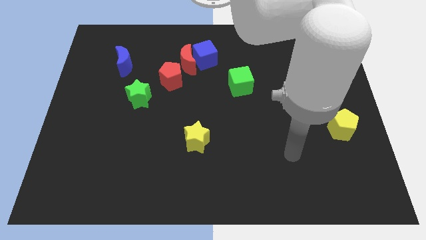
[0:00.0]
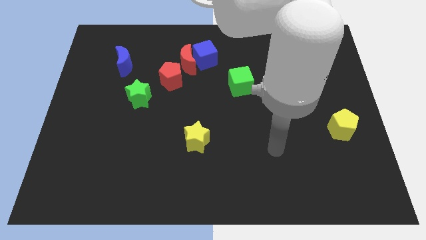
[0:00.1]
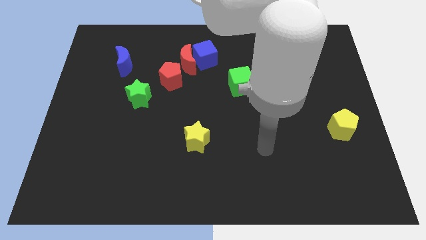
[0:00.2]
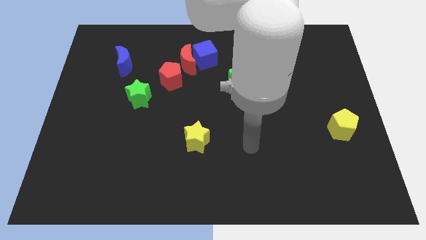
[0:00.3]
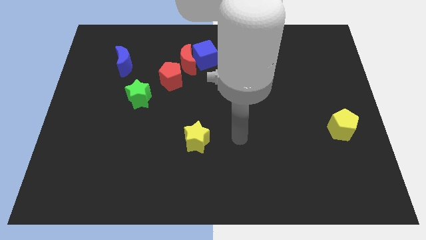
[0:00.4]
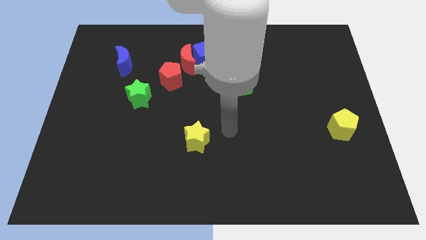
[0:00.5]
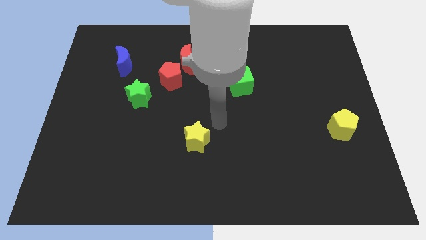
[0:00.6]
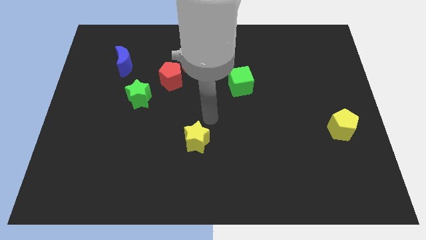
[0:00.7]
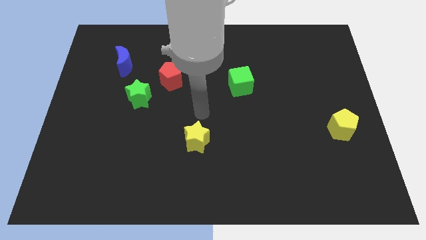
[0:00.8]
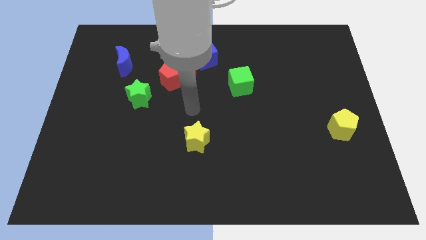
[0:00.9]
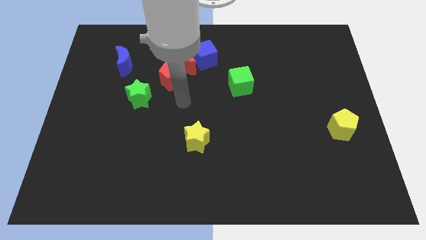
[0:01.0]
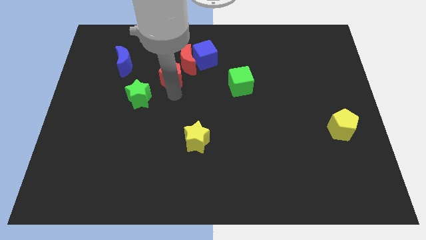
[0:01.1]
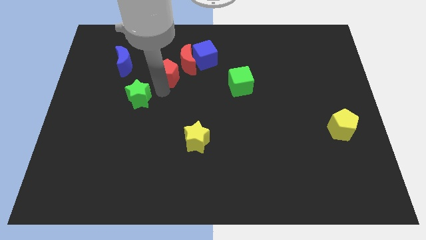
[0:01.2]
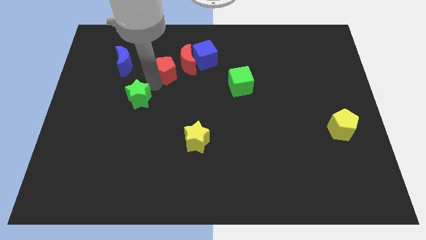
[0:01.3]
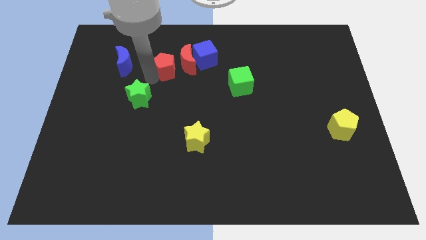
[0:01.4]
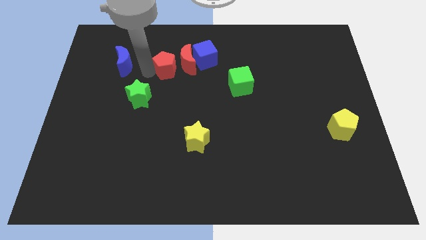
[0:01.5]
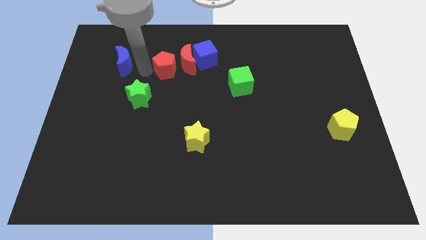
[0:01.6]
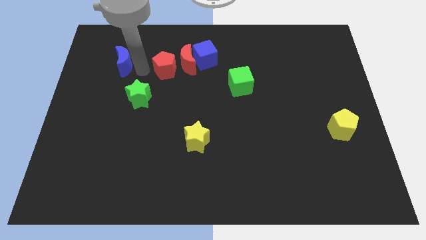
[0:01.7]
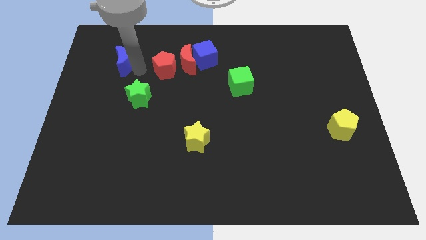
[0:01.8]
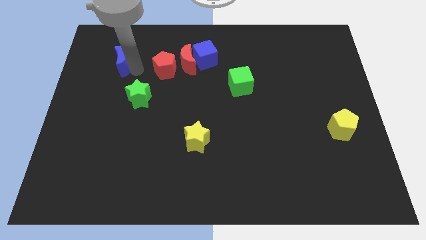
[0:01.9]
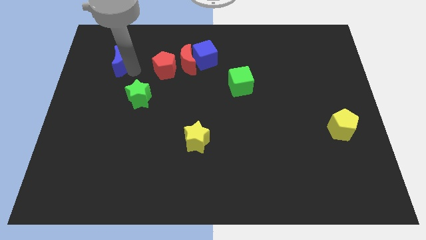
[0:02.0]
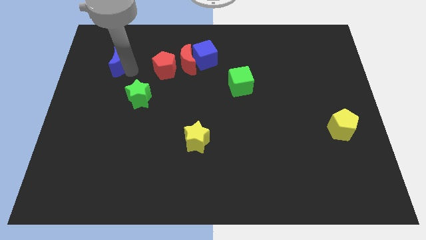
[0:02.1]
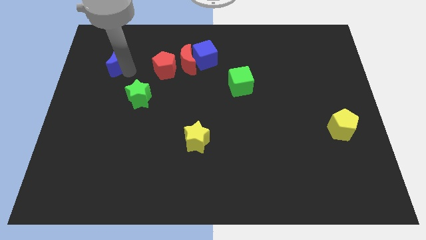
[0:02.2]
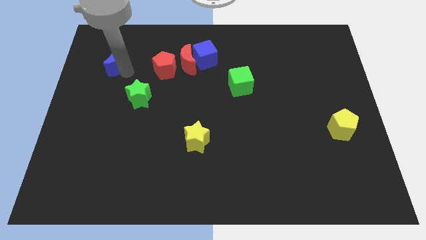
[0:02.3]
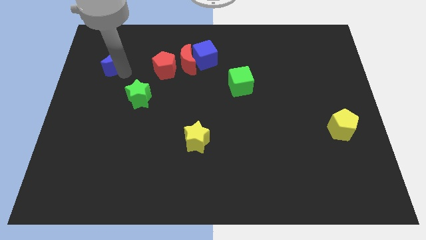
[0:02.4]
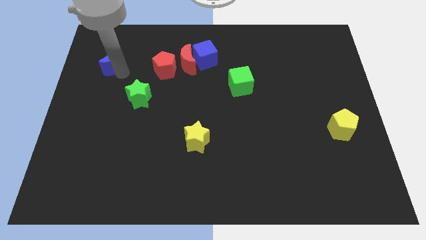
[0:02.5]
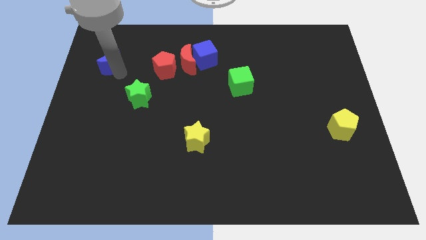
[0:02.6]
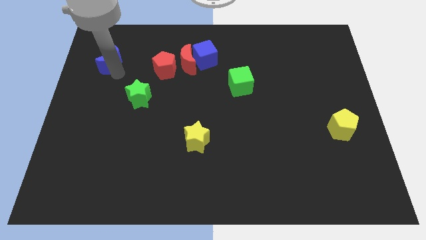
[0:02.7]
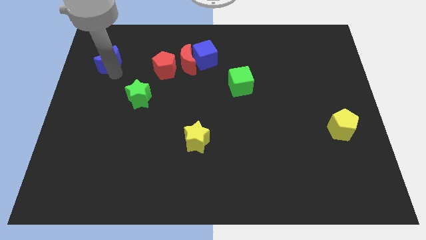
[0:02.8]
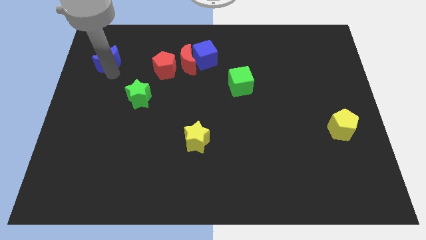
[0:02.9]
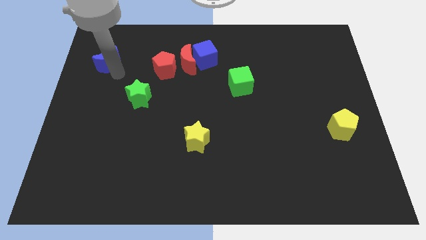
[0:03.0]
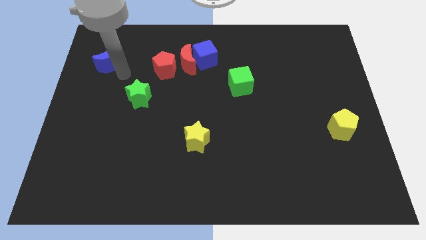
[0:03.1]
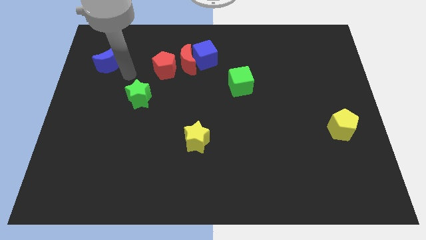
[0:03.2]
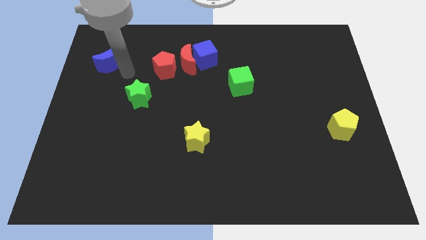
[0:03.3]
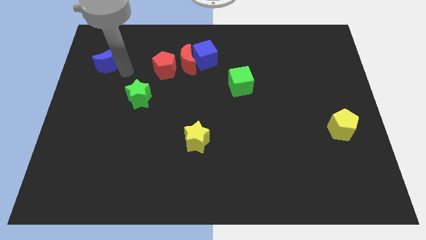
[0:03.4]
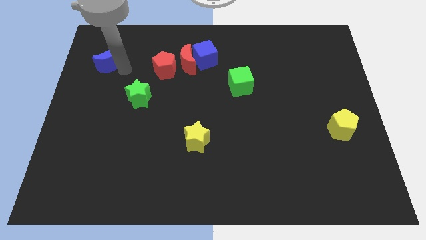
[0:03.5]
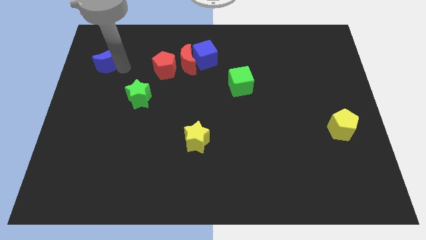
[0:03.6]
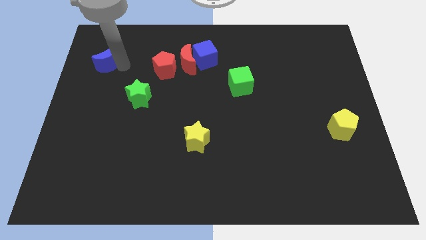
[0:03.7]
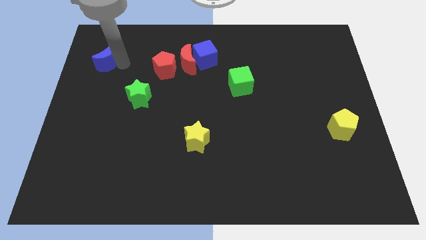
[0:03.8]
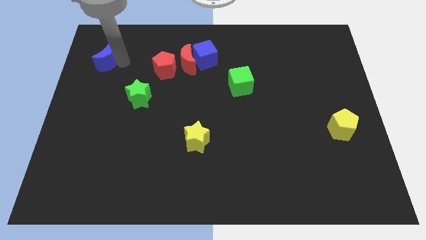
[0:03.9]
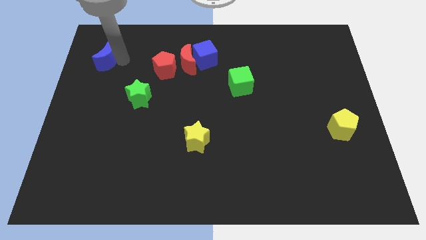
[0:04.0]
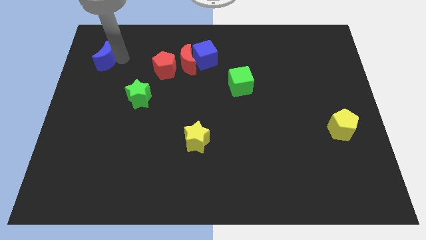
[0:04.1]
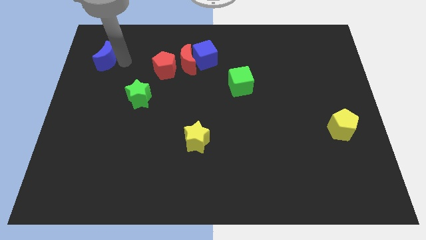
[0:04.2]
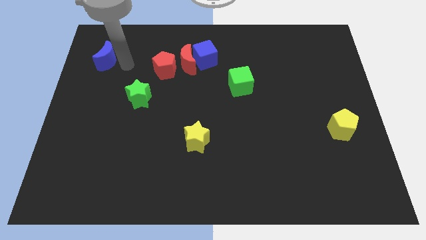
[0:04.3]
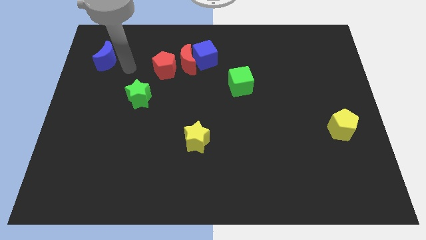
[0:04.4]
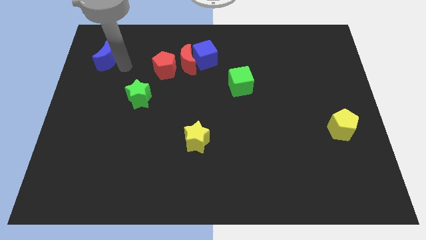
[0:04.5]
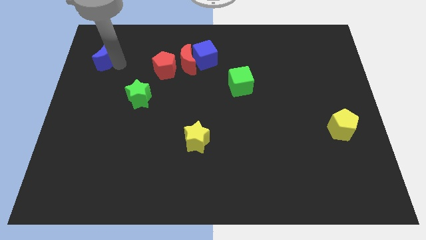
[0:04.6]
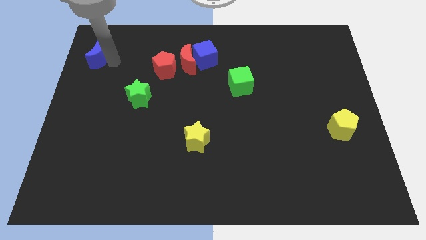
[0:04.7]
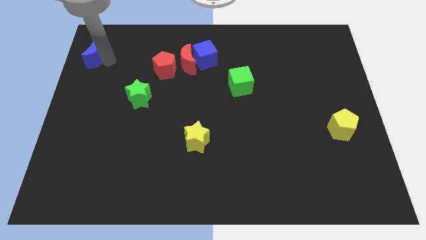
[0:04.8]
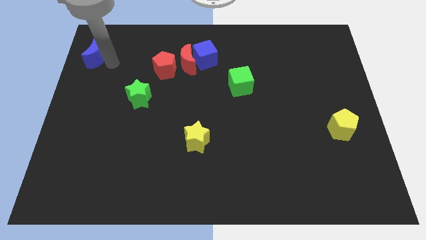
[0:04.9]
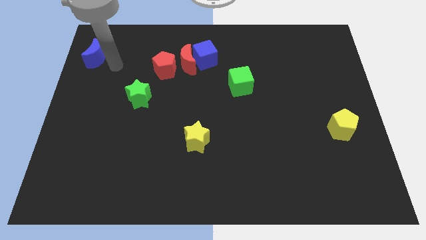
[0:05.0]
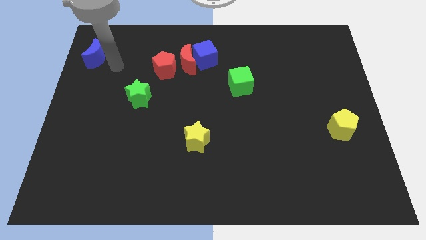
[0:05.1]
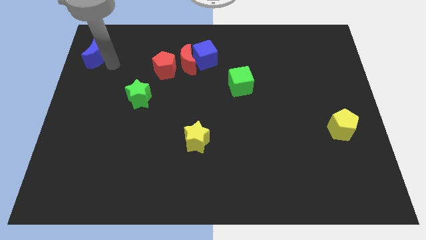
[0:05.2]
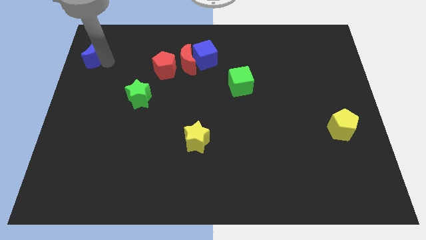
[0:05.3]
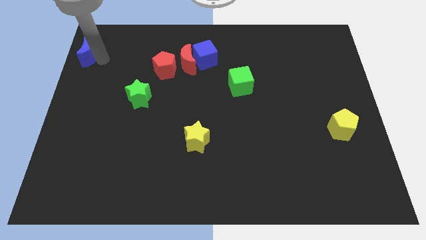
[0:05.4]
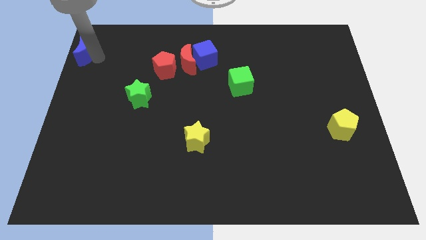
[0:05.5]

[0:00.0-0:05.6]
move the blue moon to the top left
